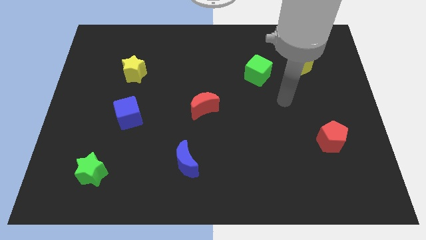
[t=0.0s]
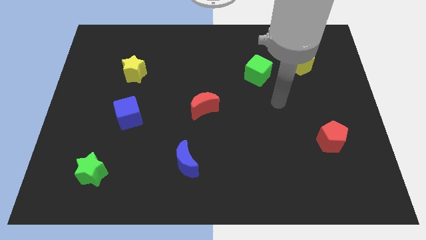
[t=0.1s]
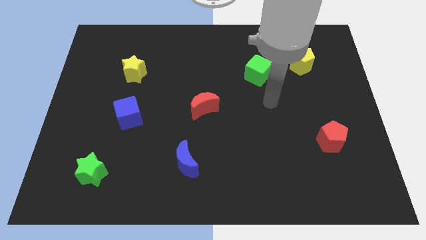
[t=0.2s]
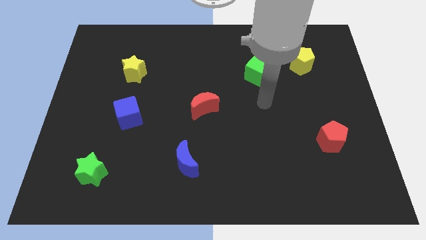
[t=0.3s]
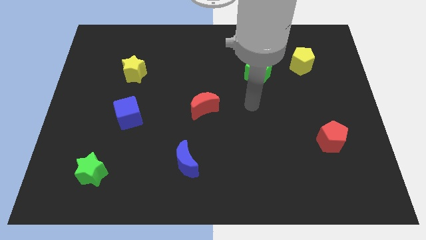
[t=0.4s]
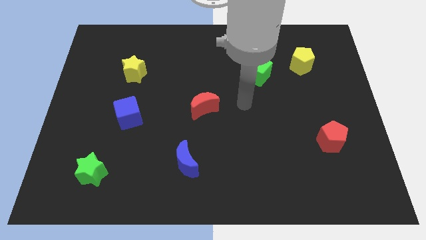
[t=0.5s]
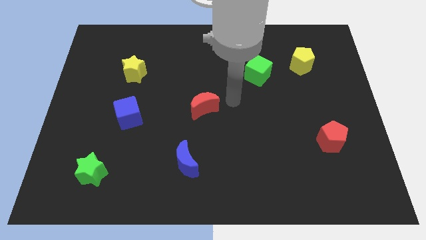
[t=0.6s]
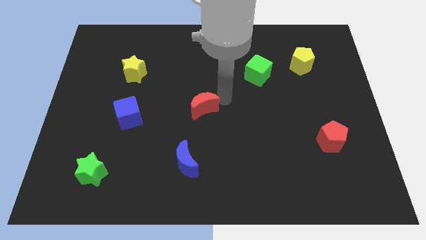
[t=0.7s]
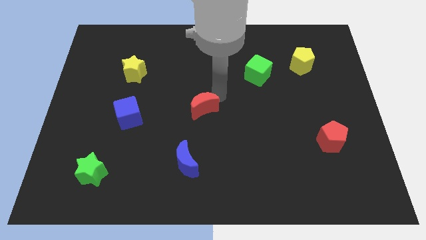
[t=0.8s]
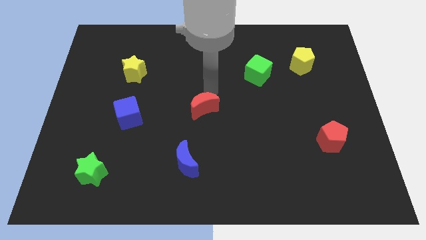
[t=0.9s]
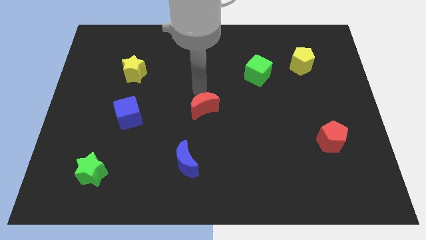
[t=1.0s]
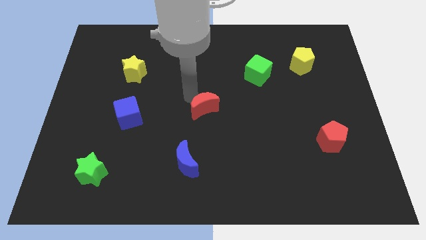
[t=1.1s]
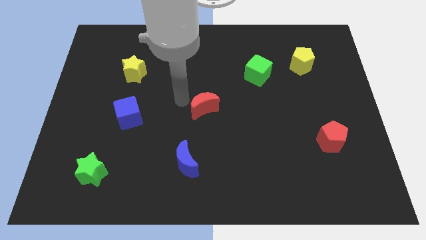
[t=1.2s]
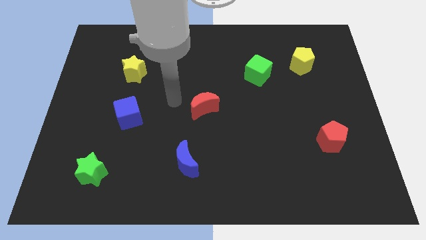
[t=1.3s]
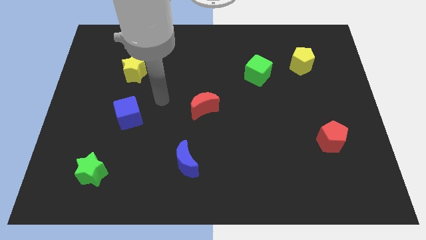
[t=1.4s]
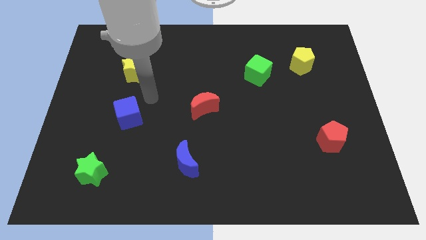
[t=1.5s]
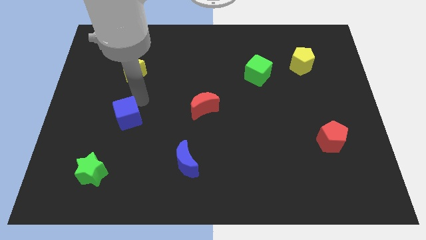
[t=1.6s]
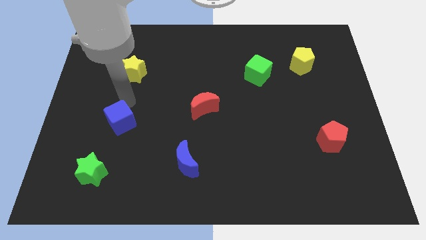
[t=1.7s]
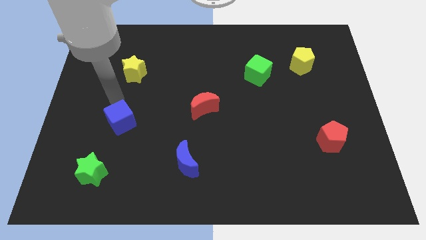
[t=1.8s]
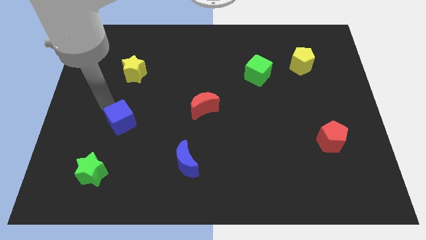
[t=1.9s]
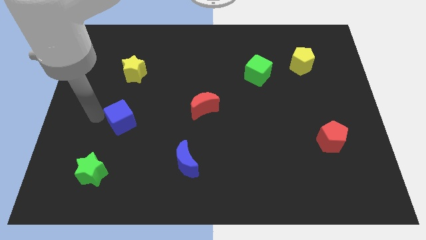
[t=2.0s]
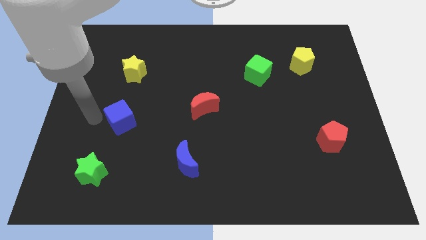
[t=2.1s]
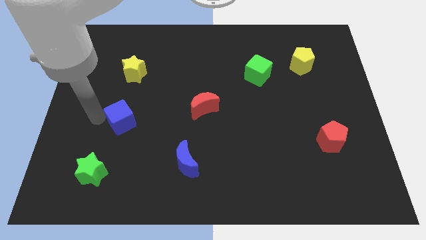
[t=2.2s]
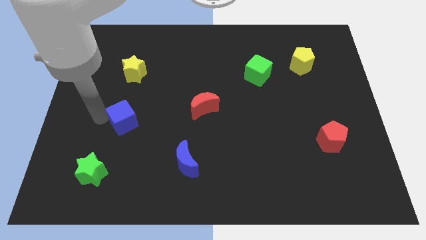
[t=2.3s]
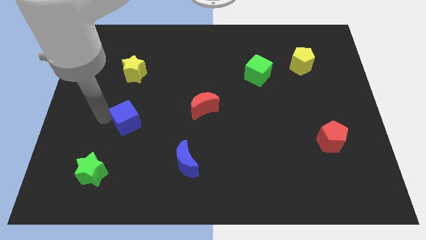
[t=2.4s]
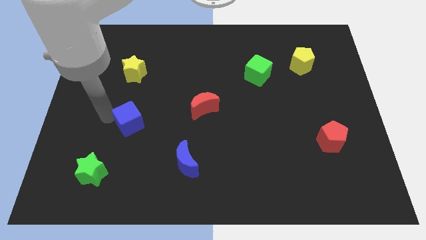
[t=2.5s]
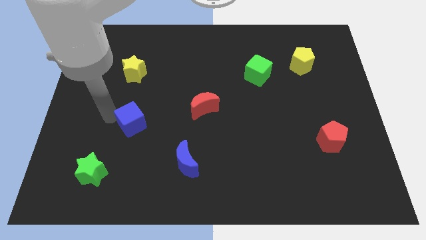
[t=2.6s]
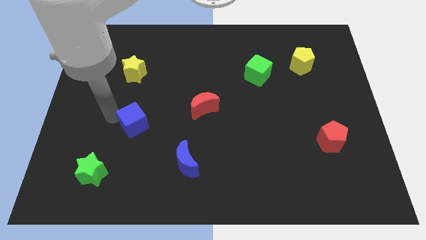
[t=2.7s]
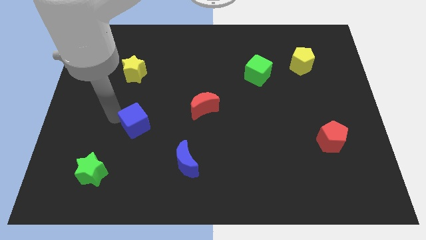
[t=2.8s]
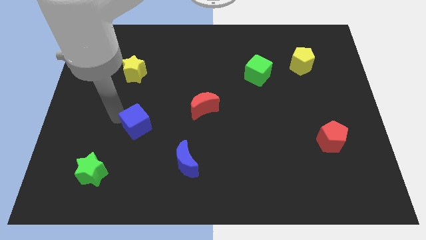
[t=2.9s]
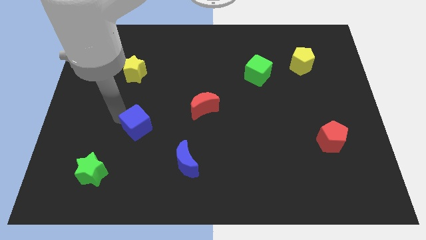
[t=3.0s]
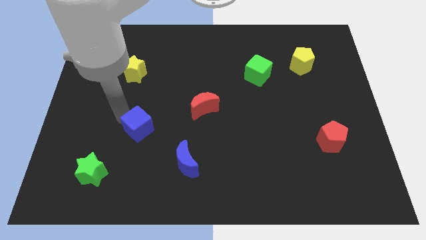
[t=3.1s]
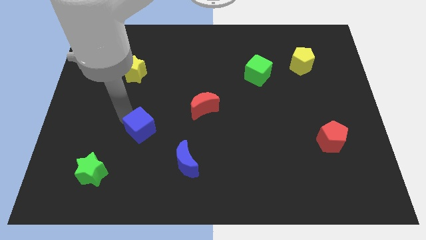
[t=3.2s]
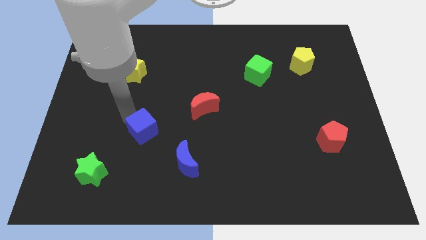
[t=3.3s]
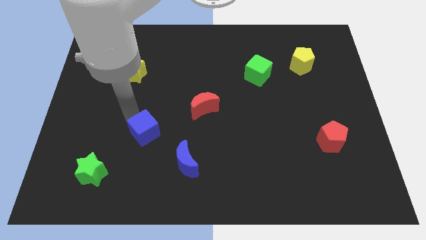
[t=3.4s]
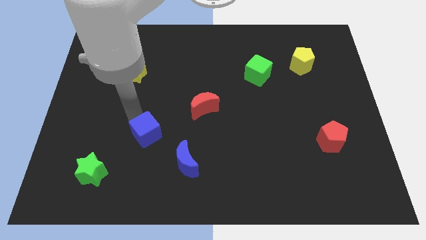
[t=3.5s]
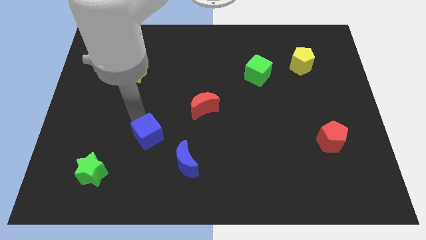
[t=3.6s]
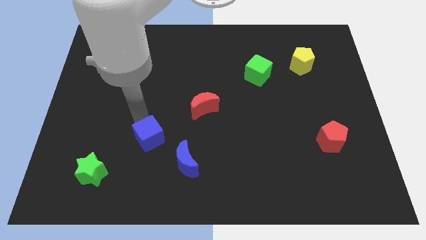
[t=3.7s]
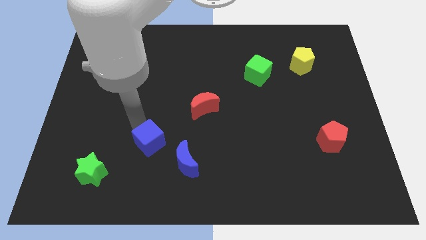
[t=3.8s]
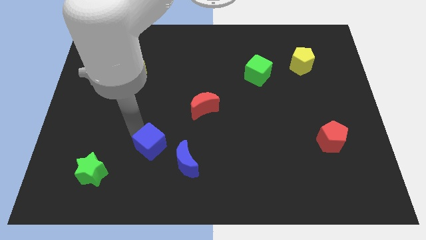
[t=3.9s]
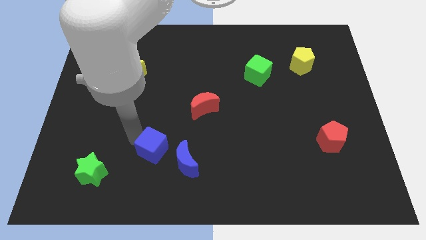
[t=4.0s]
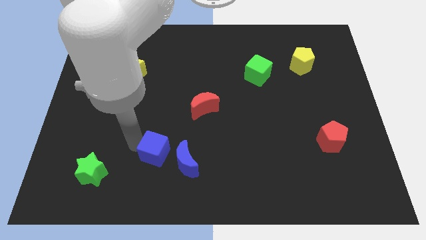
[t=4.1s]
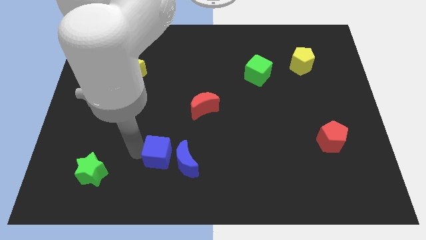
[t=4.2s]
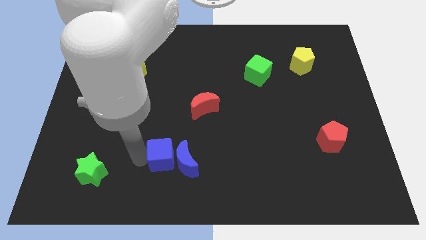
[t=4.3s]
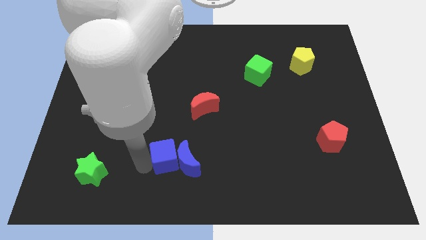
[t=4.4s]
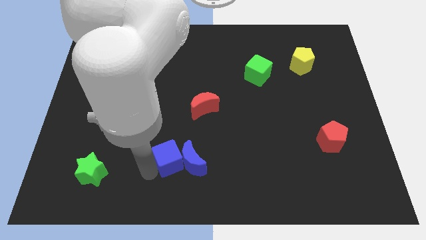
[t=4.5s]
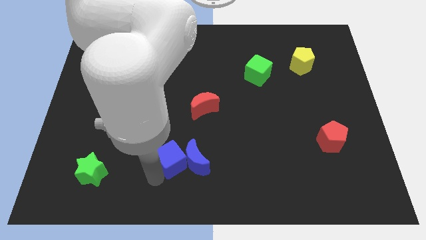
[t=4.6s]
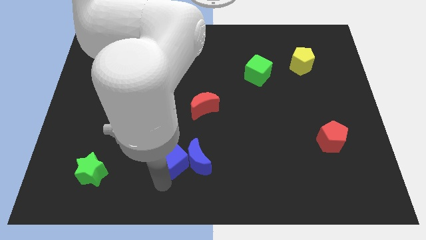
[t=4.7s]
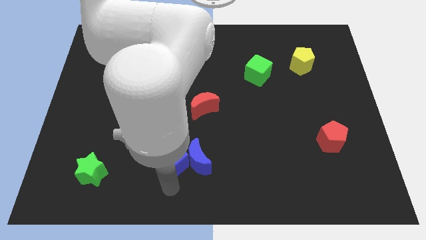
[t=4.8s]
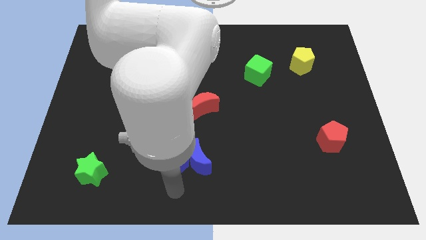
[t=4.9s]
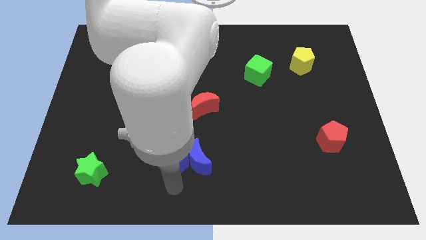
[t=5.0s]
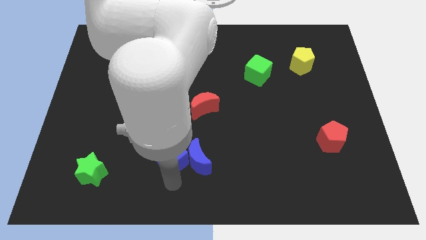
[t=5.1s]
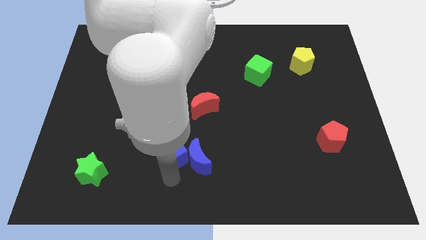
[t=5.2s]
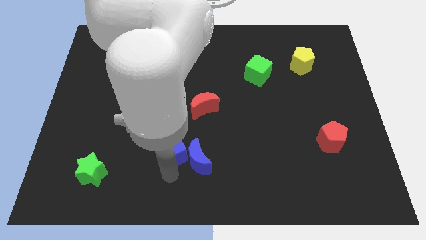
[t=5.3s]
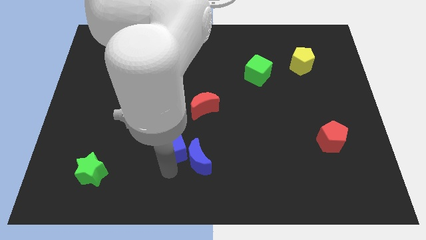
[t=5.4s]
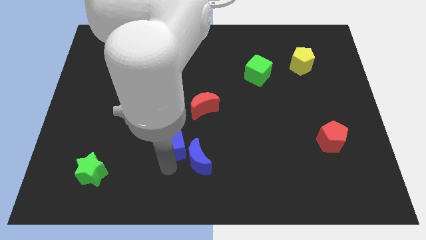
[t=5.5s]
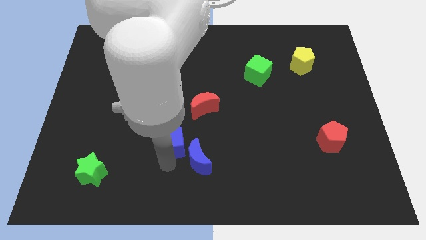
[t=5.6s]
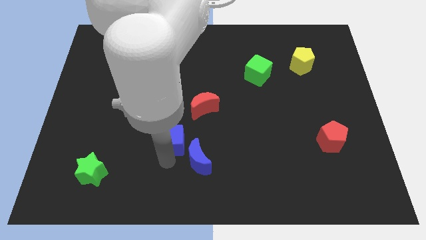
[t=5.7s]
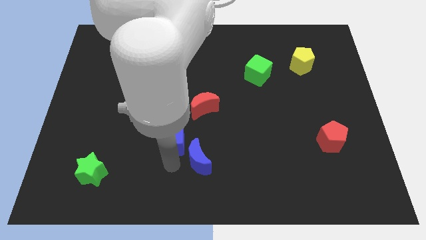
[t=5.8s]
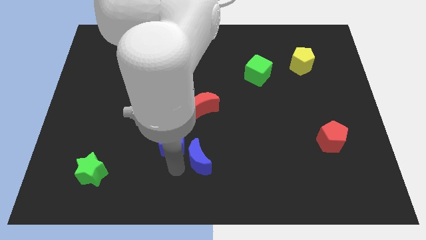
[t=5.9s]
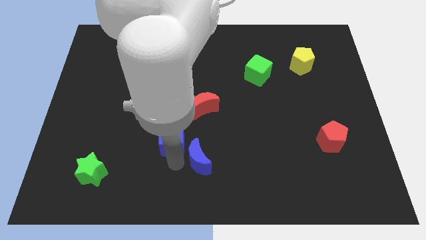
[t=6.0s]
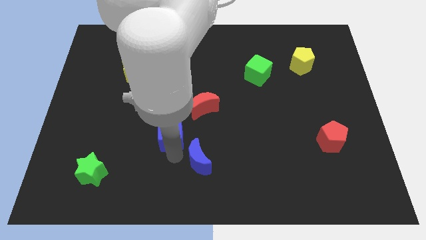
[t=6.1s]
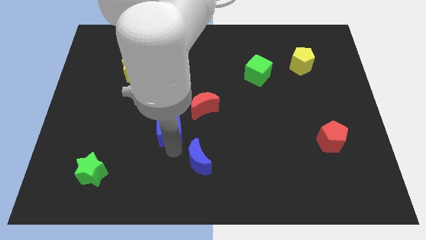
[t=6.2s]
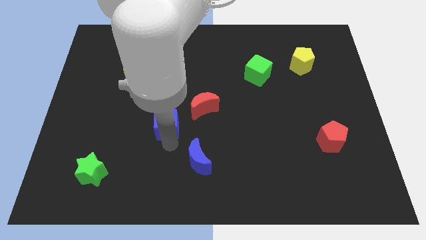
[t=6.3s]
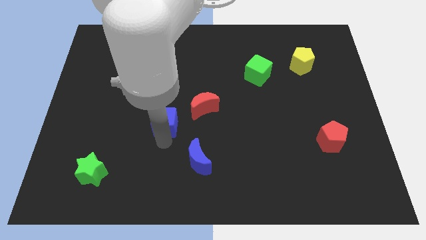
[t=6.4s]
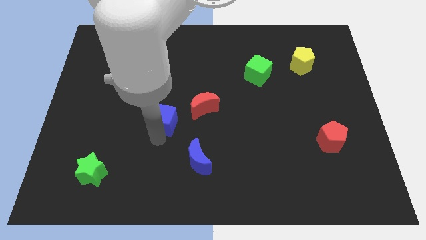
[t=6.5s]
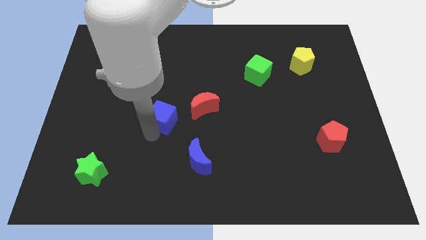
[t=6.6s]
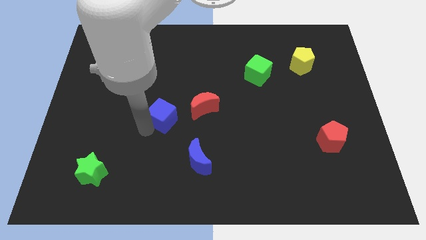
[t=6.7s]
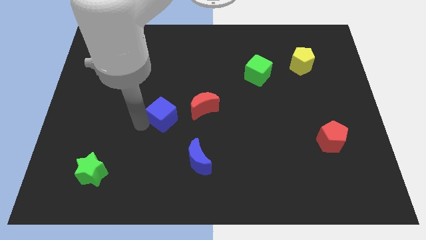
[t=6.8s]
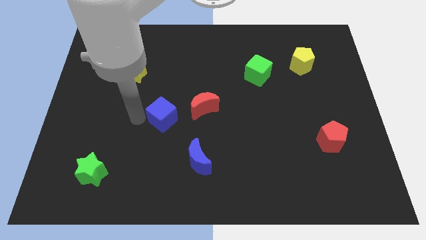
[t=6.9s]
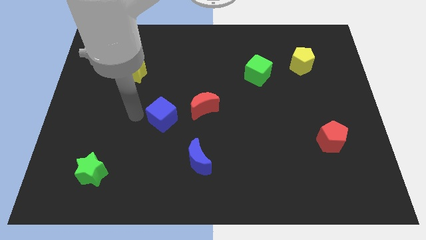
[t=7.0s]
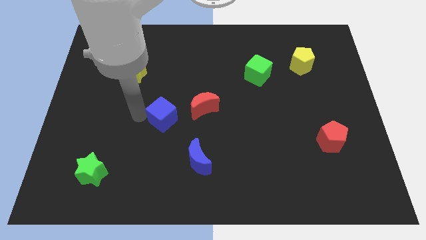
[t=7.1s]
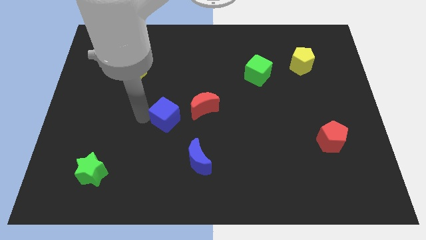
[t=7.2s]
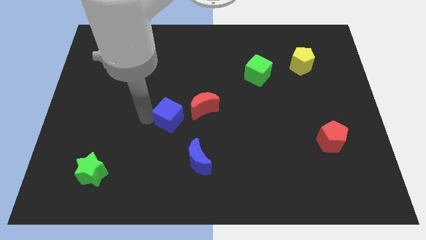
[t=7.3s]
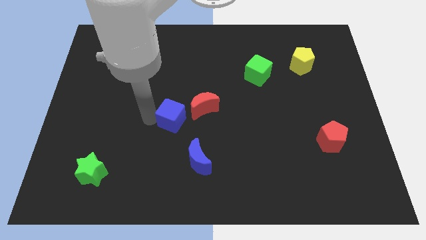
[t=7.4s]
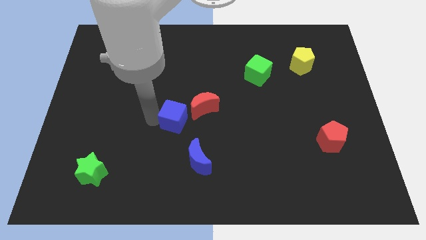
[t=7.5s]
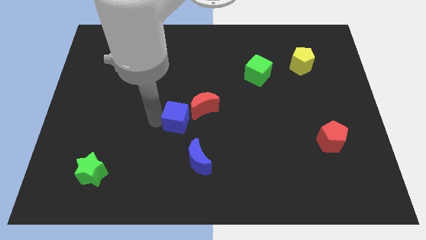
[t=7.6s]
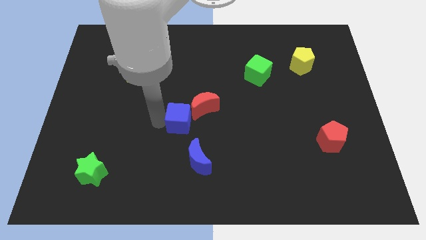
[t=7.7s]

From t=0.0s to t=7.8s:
move the blue cube above the blue moon
